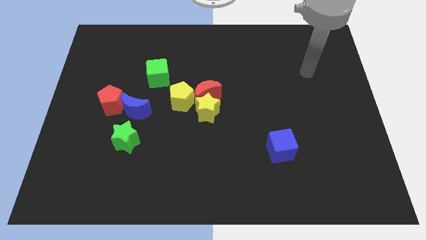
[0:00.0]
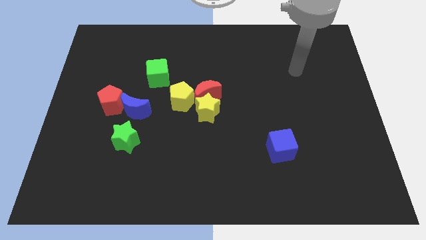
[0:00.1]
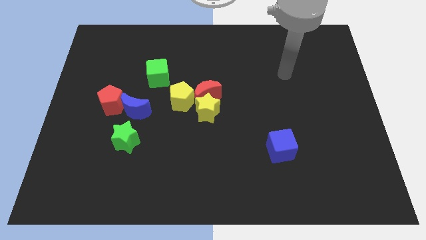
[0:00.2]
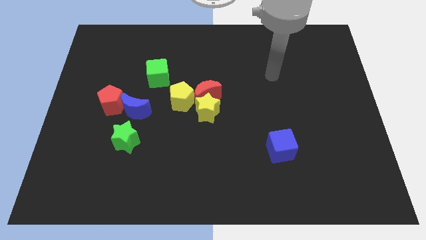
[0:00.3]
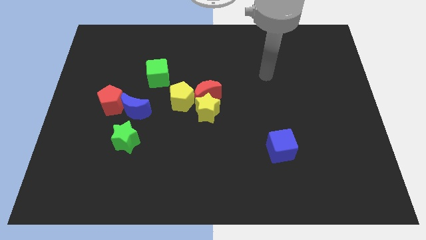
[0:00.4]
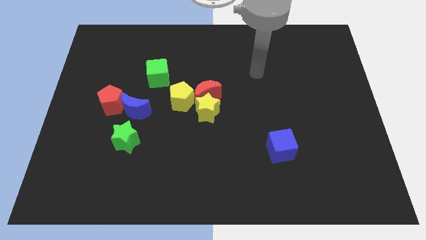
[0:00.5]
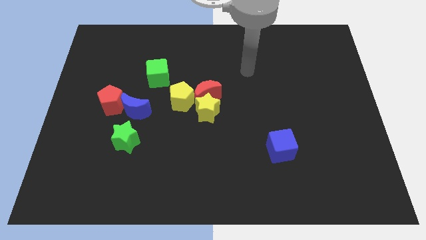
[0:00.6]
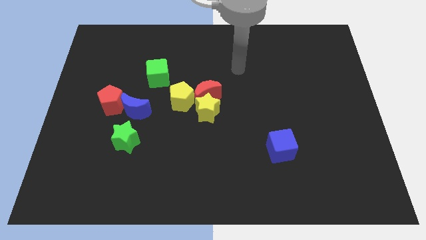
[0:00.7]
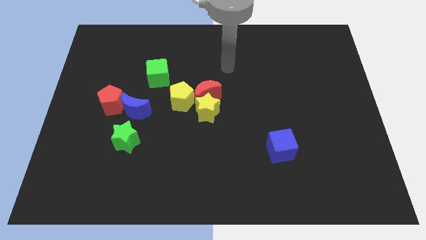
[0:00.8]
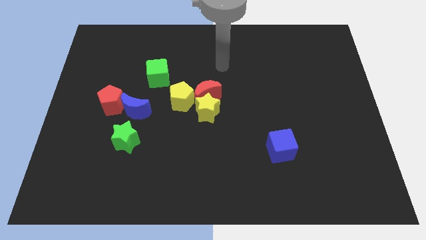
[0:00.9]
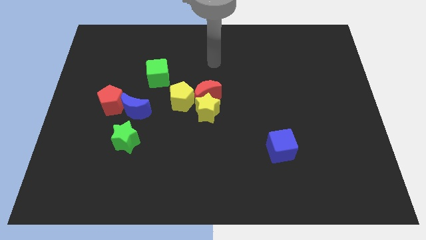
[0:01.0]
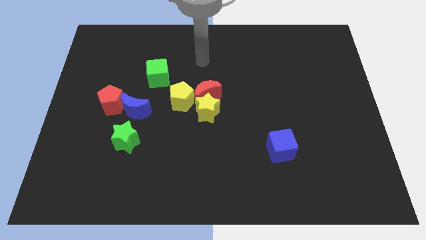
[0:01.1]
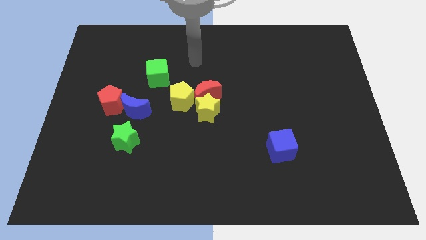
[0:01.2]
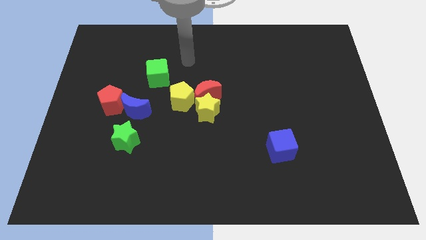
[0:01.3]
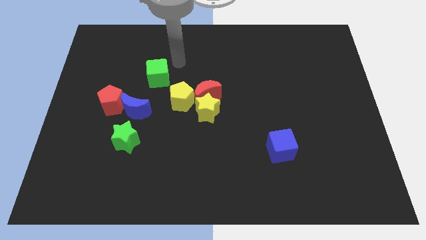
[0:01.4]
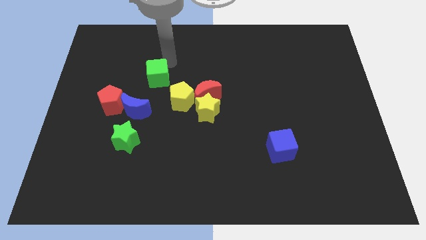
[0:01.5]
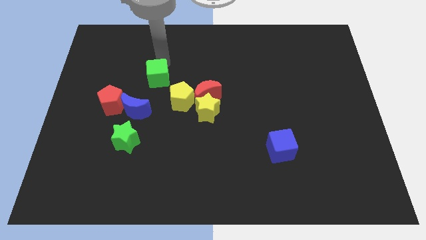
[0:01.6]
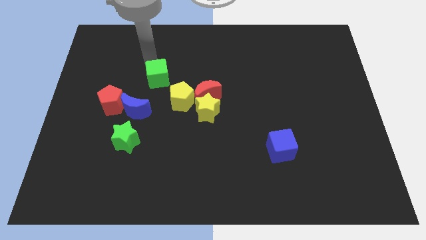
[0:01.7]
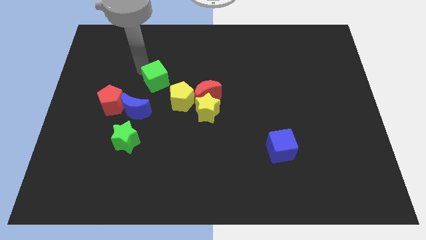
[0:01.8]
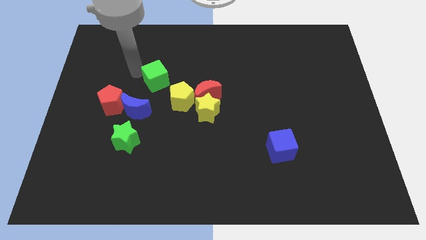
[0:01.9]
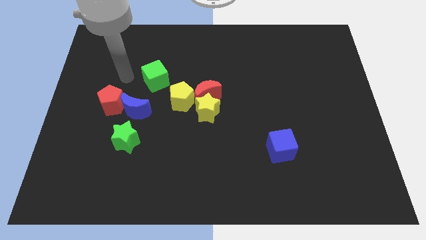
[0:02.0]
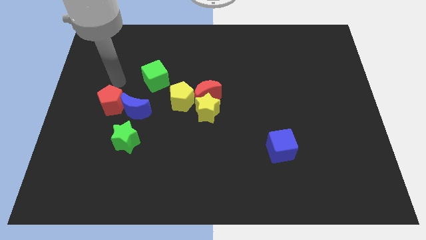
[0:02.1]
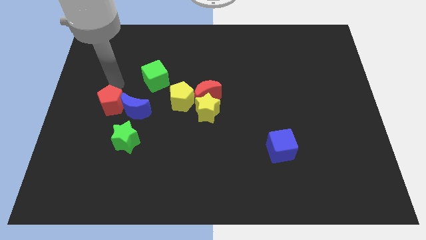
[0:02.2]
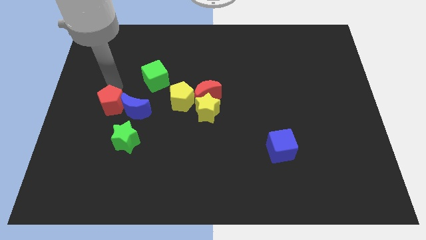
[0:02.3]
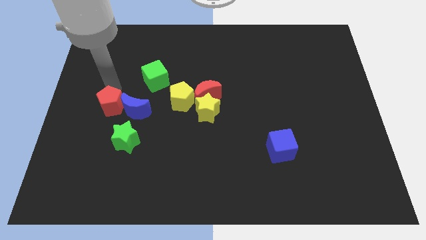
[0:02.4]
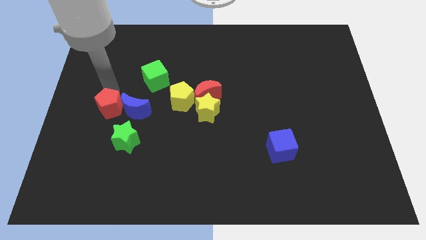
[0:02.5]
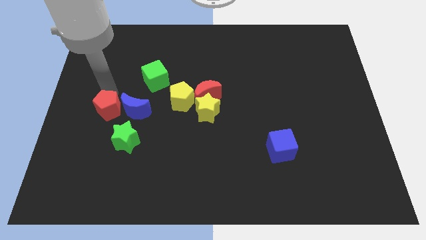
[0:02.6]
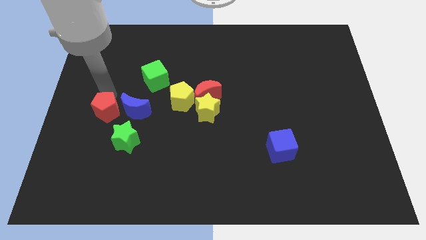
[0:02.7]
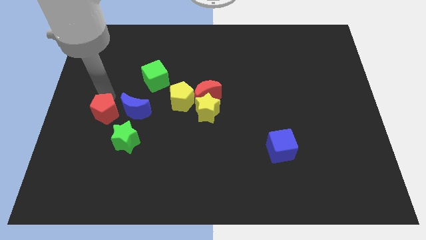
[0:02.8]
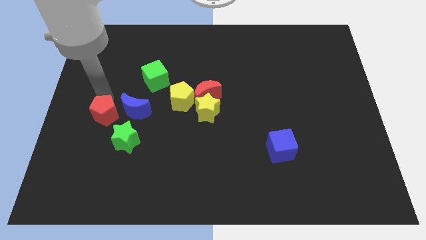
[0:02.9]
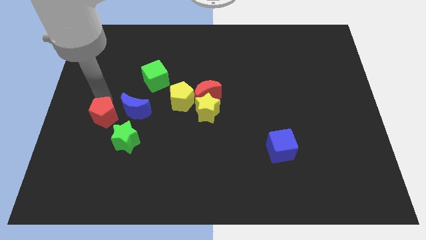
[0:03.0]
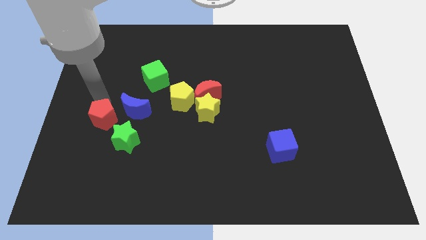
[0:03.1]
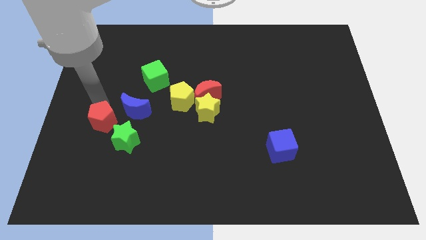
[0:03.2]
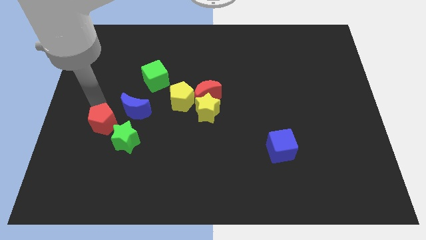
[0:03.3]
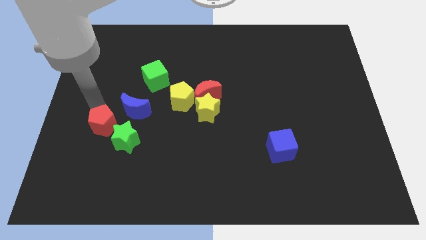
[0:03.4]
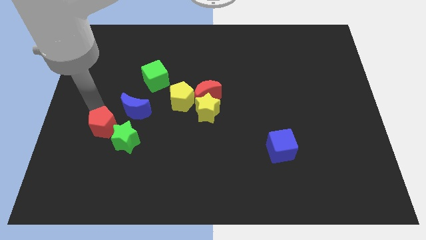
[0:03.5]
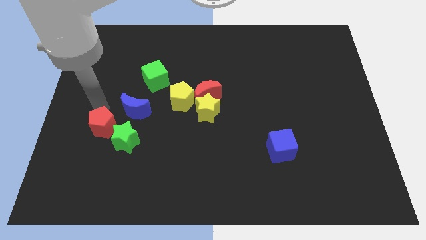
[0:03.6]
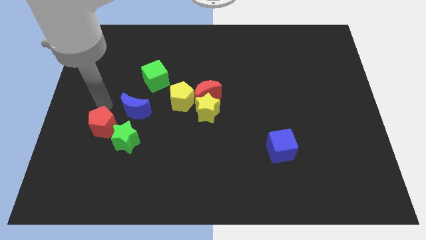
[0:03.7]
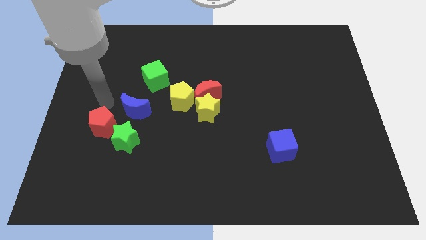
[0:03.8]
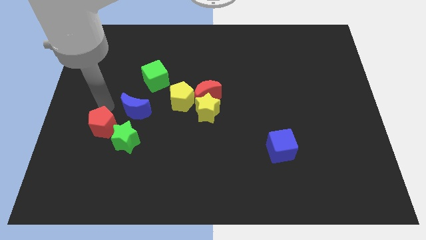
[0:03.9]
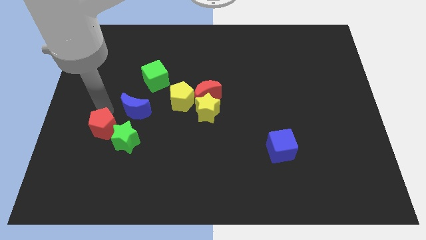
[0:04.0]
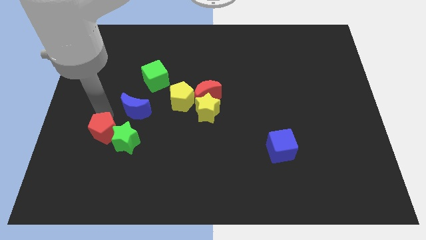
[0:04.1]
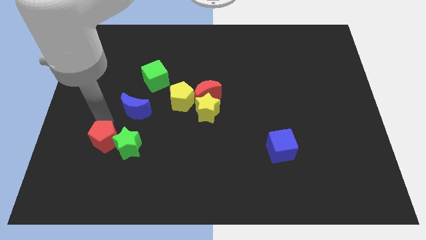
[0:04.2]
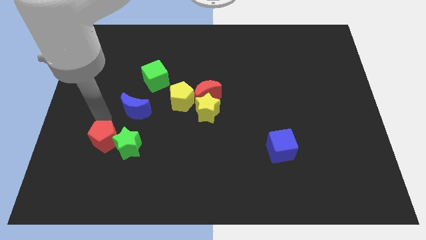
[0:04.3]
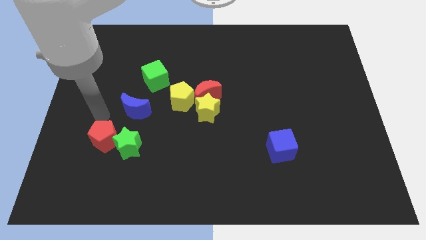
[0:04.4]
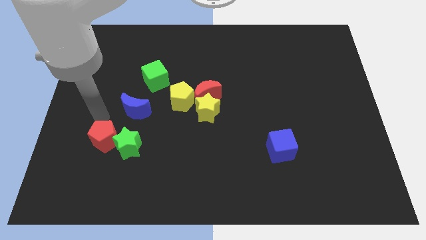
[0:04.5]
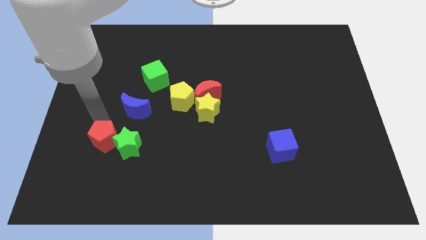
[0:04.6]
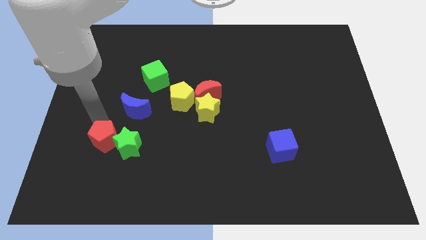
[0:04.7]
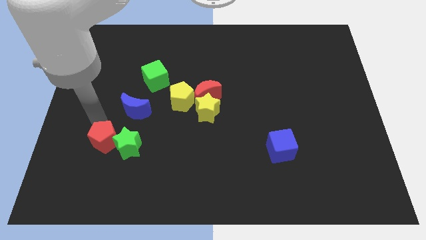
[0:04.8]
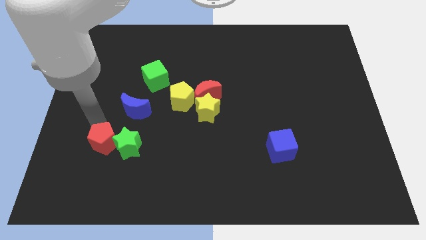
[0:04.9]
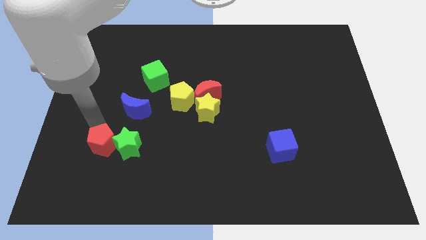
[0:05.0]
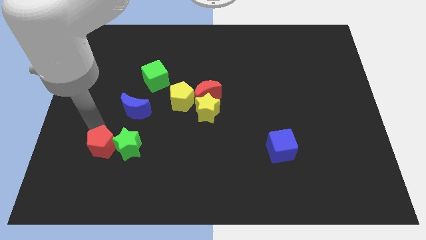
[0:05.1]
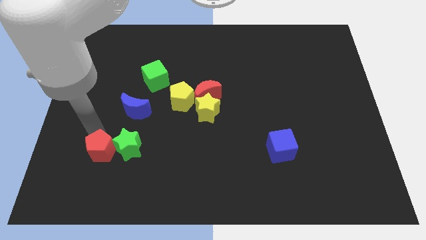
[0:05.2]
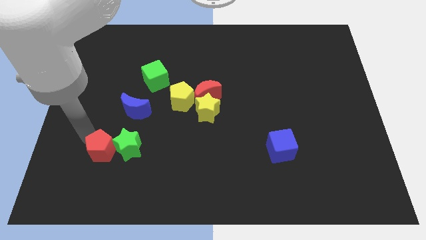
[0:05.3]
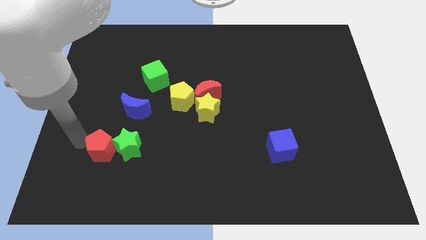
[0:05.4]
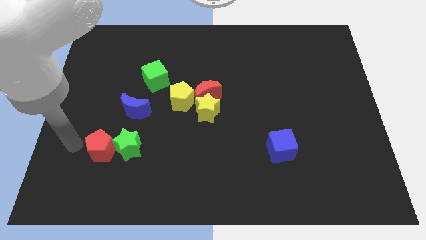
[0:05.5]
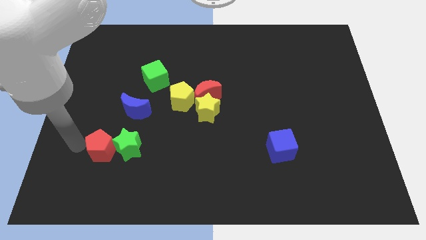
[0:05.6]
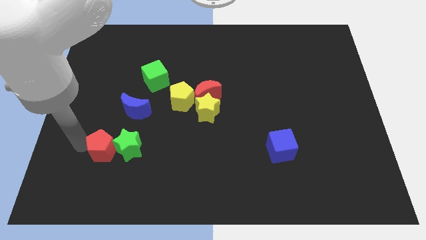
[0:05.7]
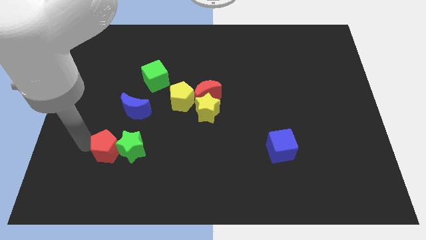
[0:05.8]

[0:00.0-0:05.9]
move the red pentagon downwards and to the right diagonally slightly

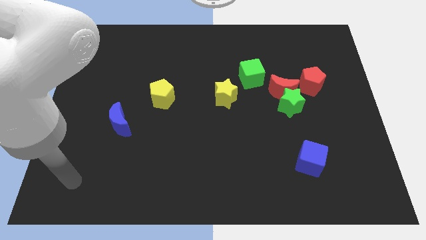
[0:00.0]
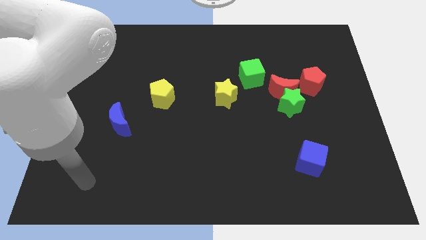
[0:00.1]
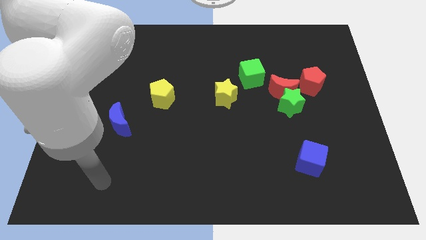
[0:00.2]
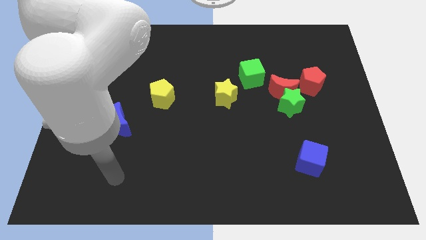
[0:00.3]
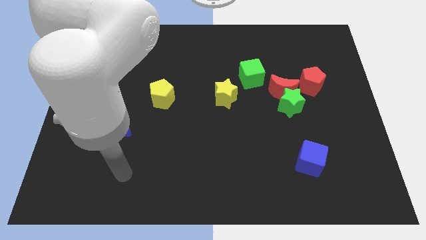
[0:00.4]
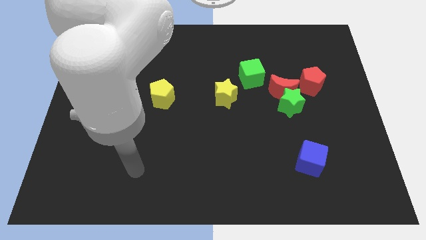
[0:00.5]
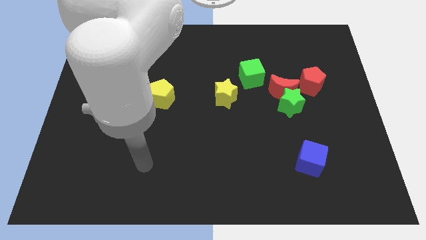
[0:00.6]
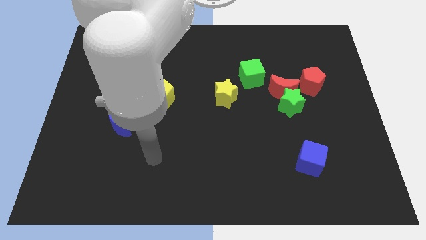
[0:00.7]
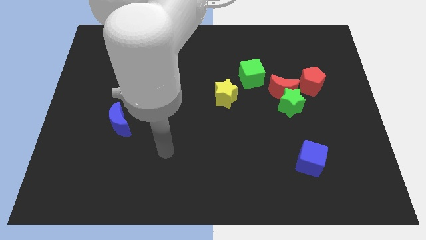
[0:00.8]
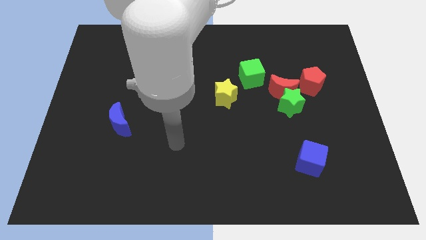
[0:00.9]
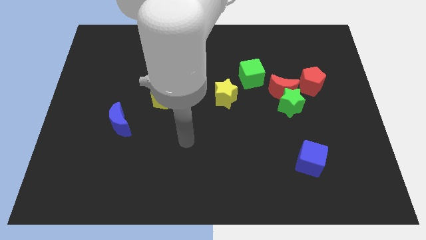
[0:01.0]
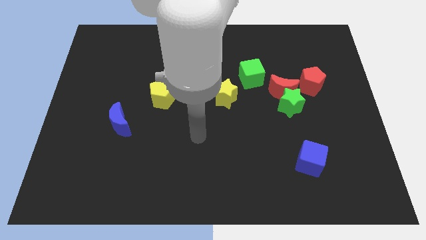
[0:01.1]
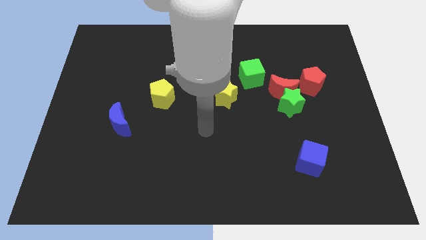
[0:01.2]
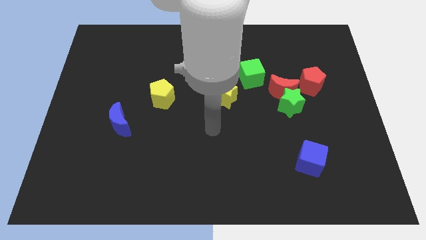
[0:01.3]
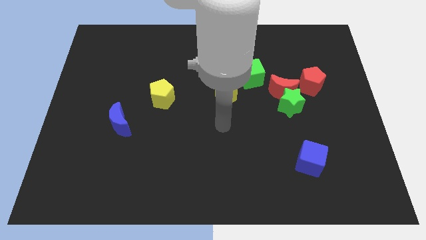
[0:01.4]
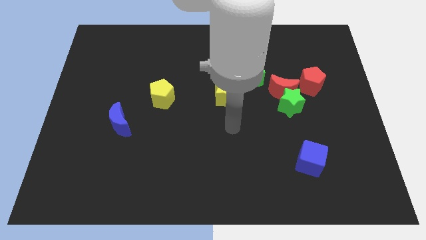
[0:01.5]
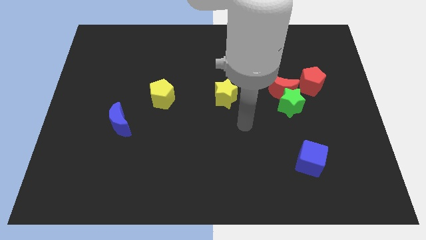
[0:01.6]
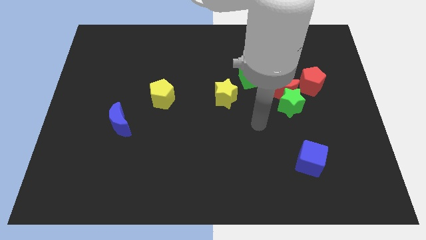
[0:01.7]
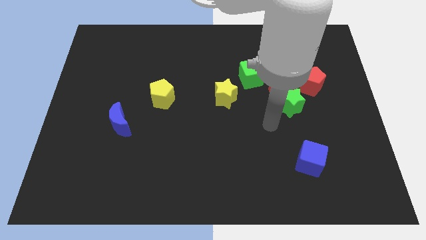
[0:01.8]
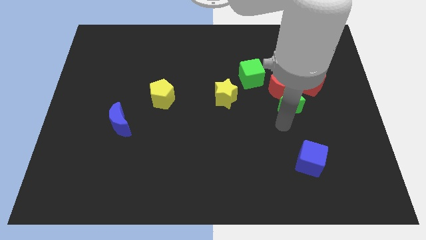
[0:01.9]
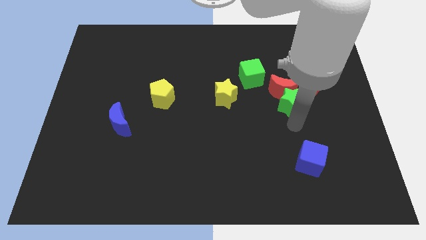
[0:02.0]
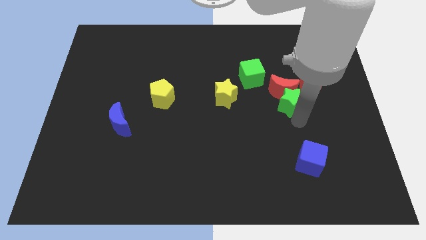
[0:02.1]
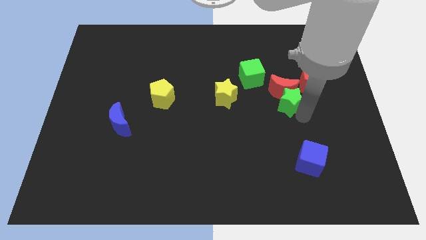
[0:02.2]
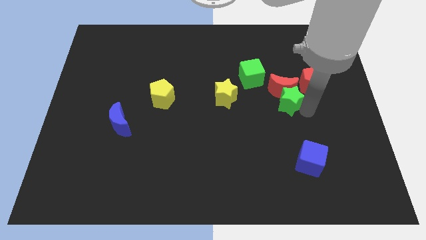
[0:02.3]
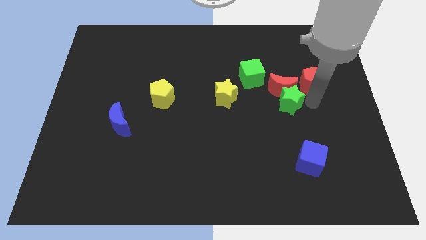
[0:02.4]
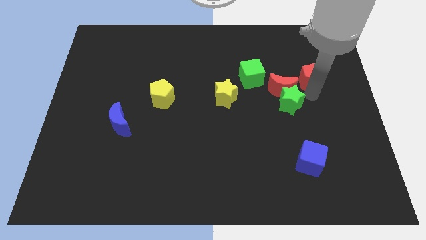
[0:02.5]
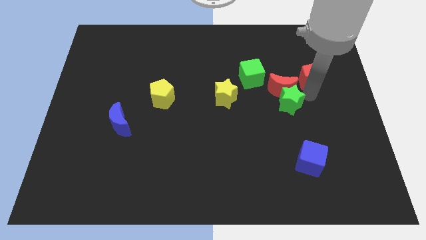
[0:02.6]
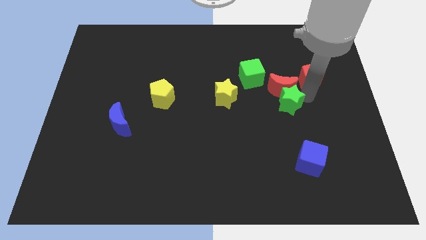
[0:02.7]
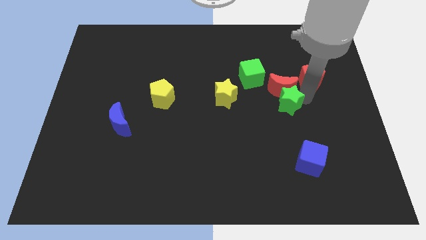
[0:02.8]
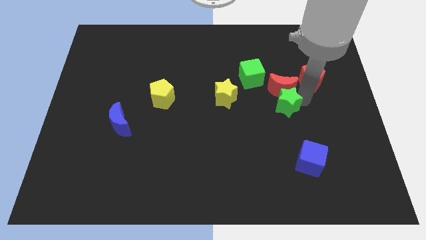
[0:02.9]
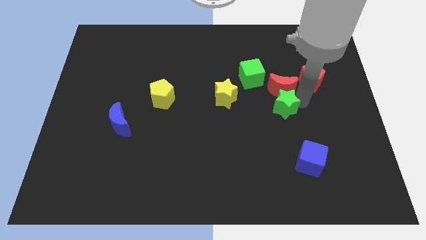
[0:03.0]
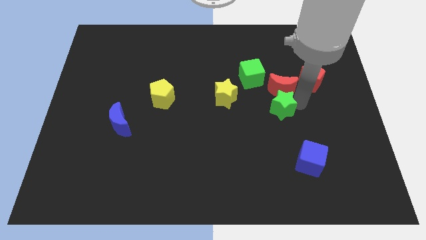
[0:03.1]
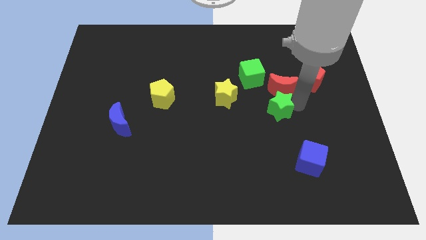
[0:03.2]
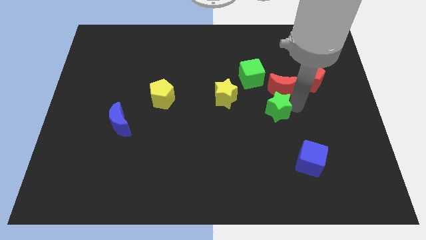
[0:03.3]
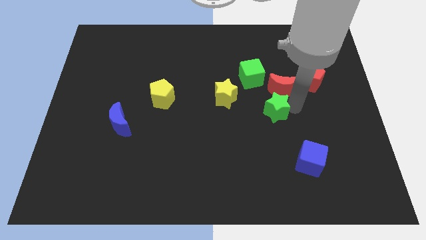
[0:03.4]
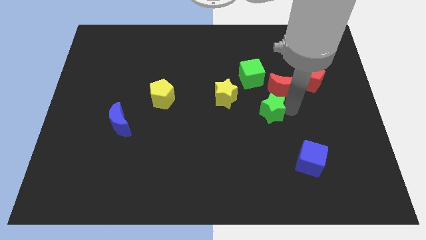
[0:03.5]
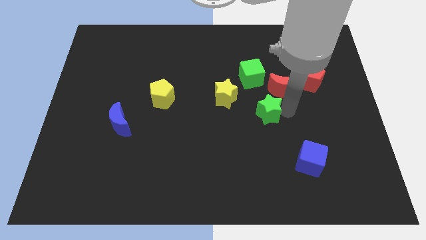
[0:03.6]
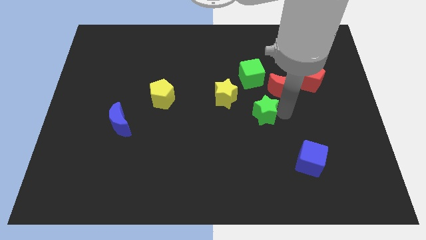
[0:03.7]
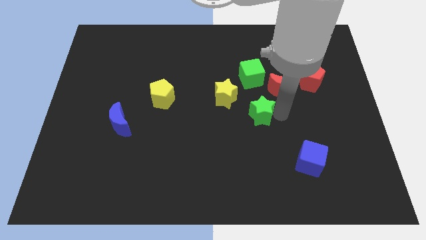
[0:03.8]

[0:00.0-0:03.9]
move the green star a little bit left
